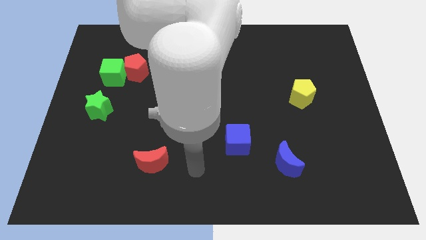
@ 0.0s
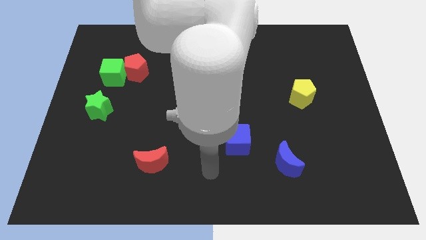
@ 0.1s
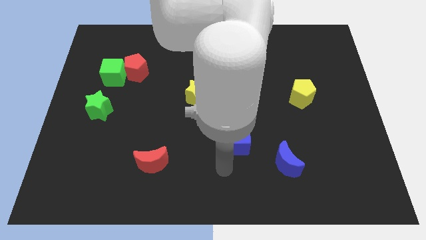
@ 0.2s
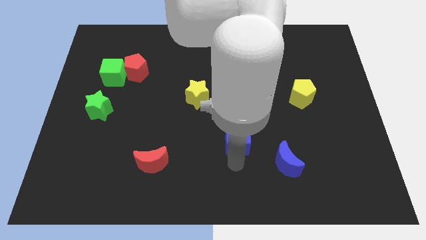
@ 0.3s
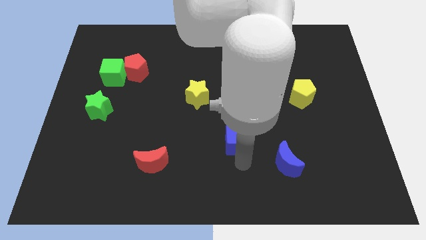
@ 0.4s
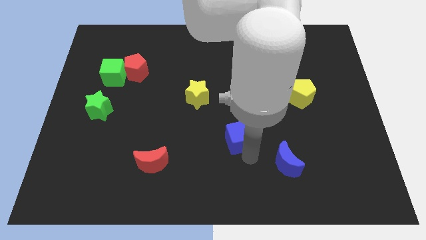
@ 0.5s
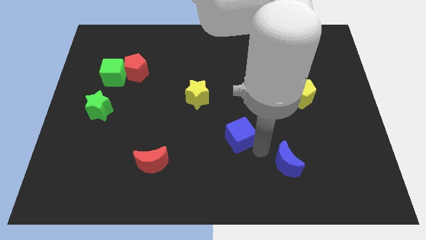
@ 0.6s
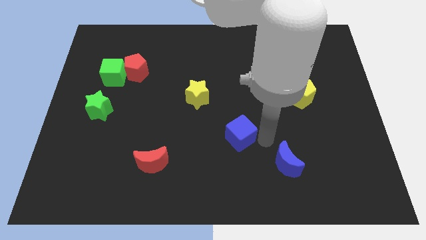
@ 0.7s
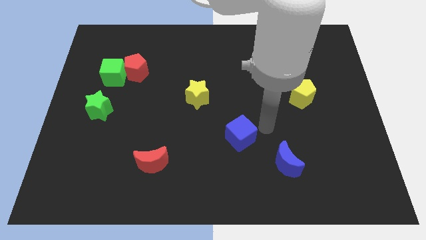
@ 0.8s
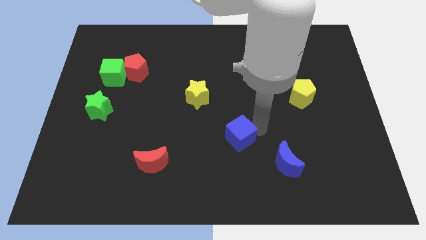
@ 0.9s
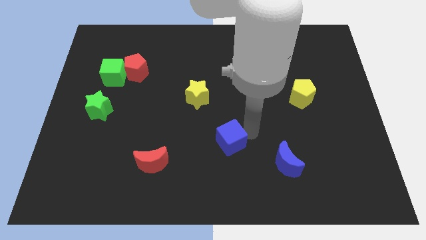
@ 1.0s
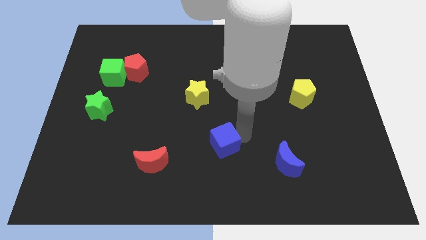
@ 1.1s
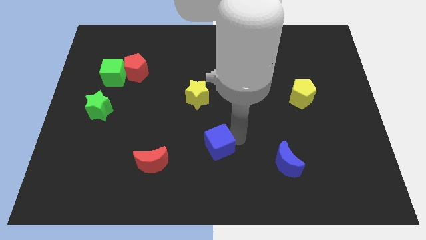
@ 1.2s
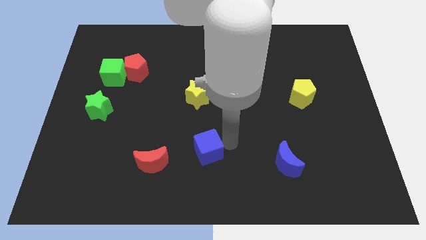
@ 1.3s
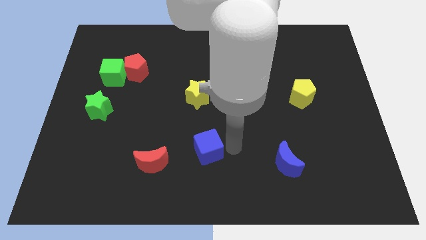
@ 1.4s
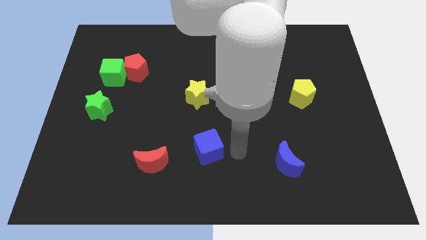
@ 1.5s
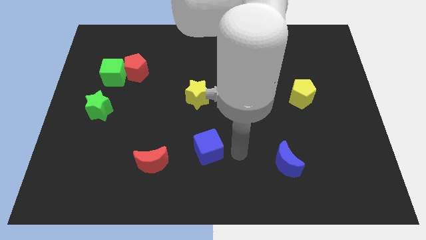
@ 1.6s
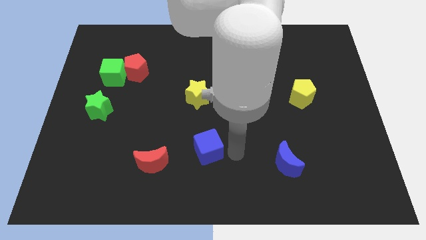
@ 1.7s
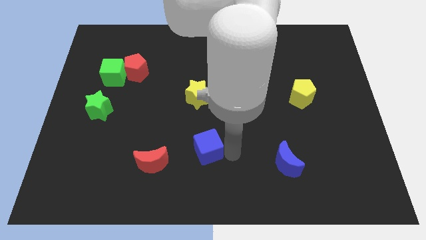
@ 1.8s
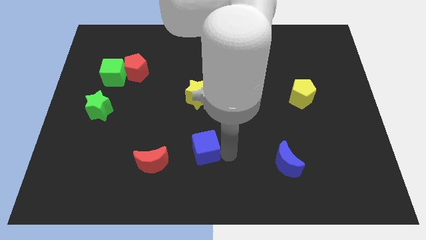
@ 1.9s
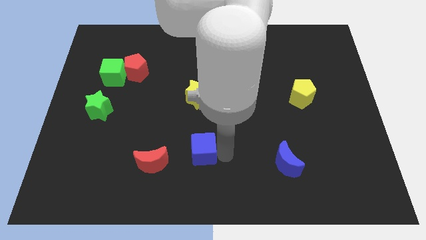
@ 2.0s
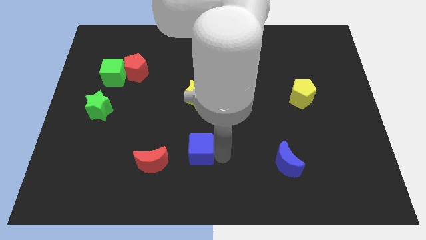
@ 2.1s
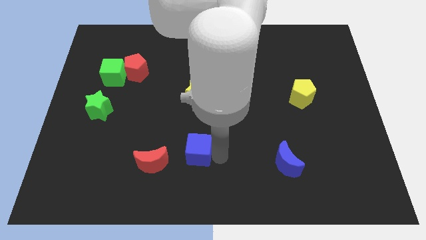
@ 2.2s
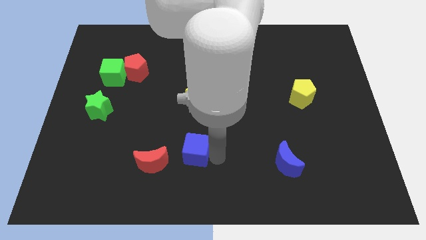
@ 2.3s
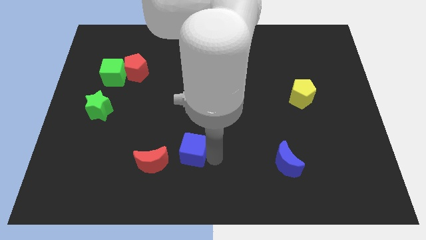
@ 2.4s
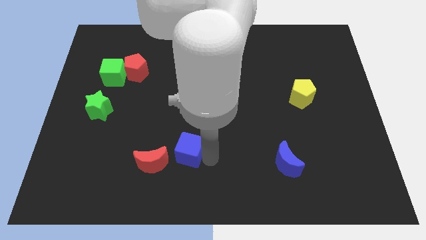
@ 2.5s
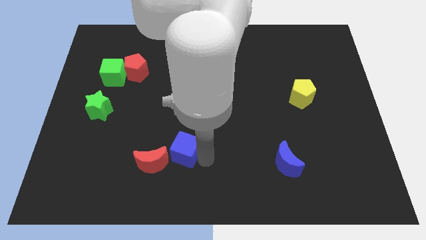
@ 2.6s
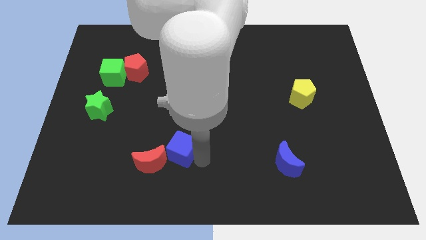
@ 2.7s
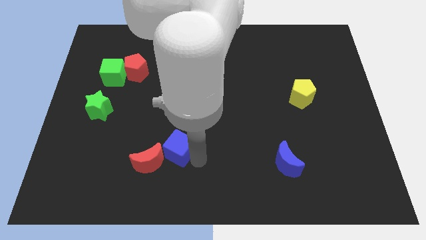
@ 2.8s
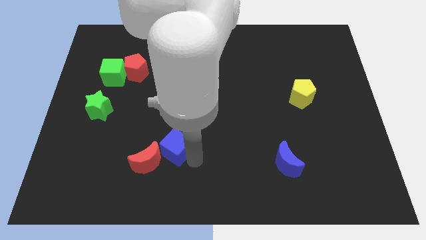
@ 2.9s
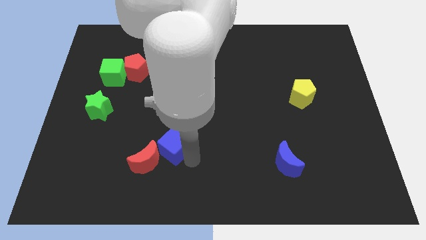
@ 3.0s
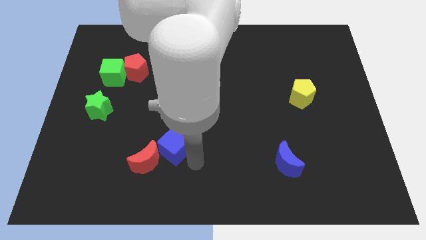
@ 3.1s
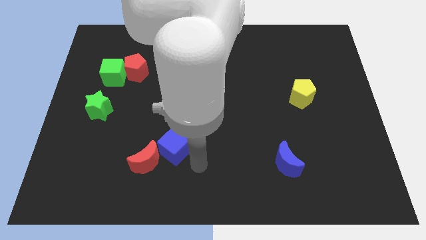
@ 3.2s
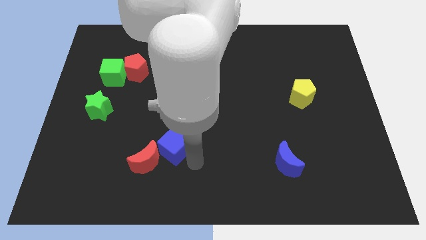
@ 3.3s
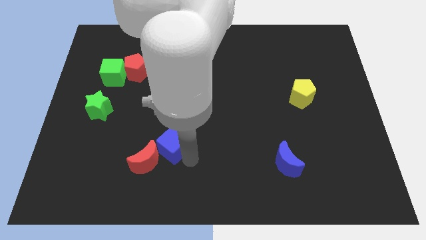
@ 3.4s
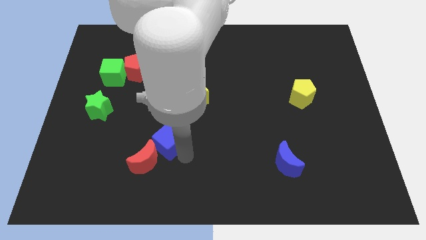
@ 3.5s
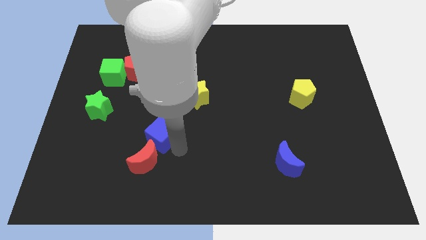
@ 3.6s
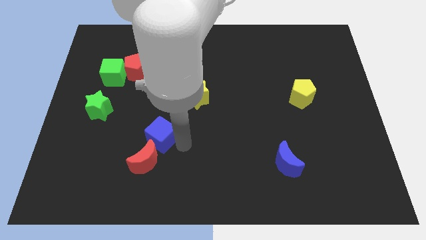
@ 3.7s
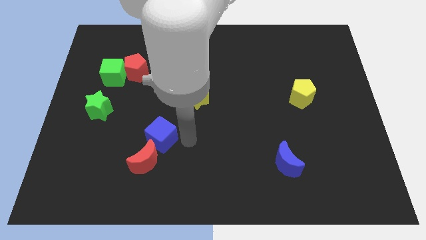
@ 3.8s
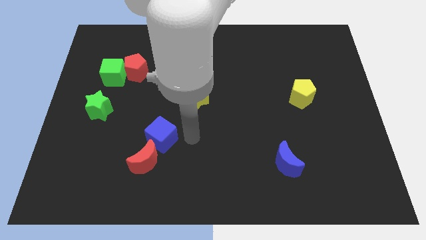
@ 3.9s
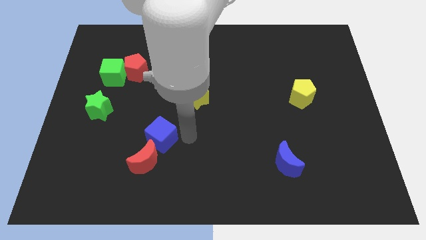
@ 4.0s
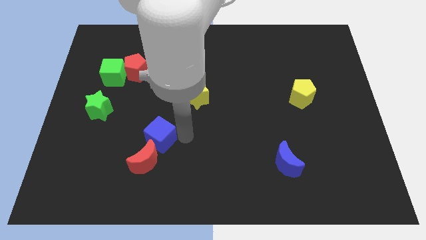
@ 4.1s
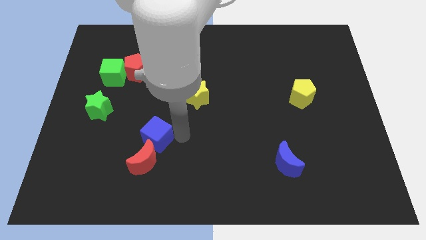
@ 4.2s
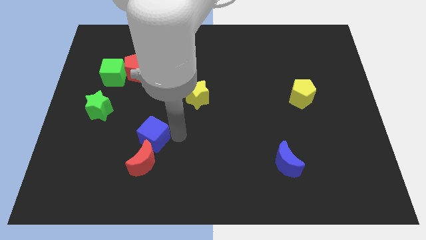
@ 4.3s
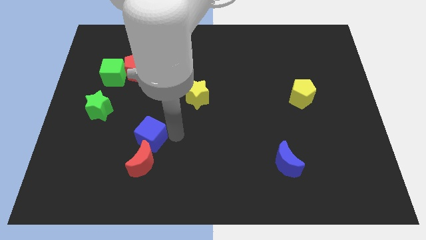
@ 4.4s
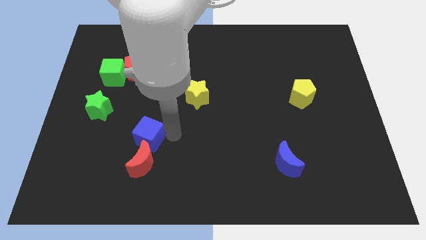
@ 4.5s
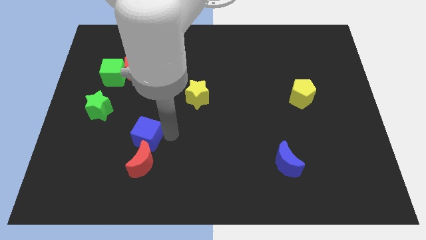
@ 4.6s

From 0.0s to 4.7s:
slide the blue cube left

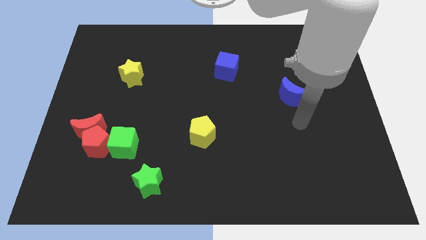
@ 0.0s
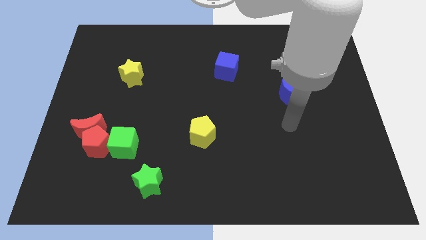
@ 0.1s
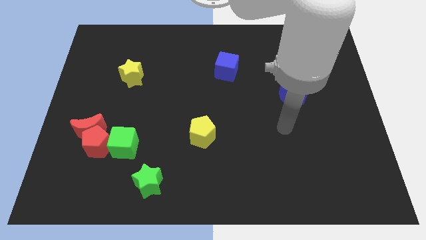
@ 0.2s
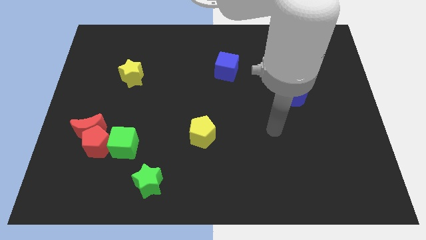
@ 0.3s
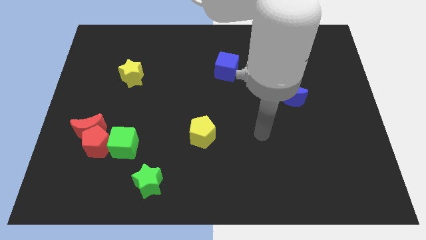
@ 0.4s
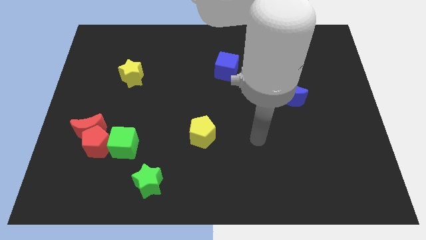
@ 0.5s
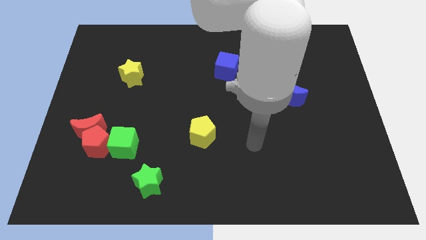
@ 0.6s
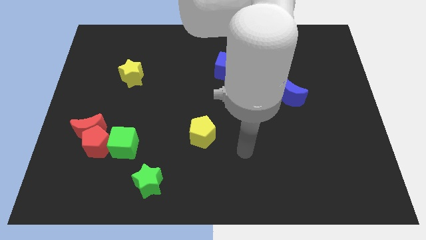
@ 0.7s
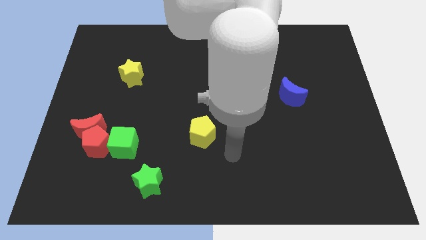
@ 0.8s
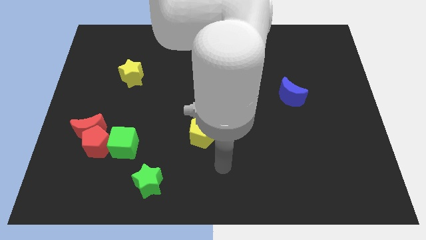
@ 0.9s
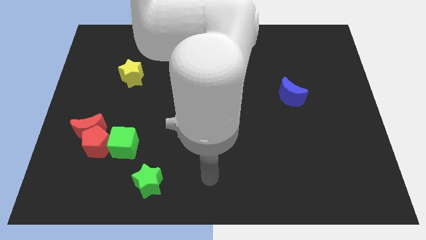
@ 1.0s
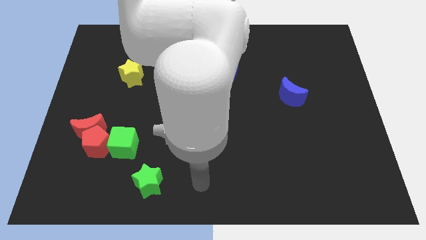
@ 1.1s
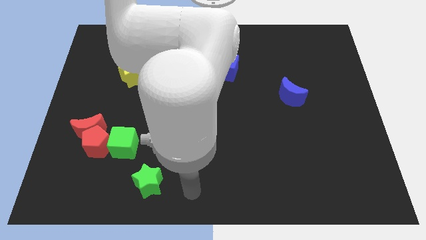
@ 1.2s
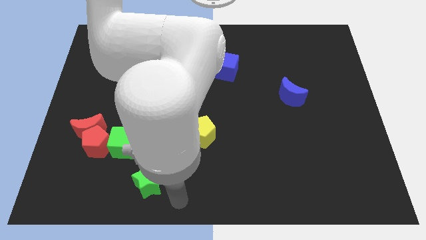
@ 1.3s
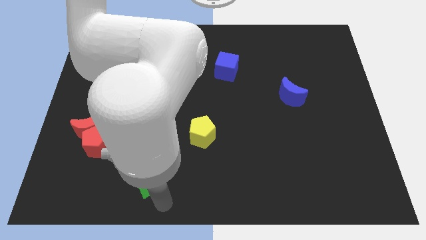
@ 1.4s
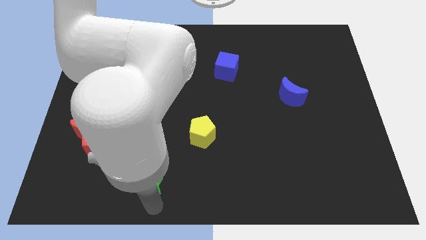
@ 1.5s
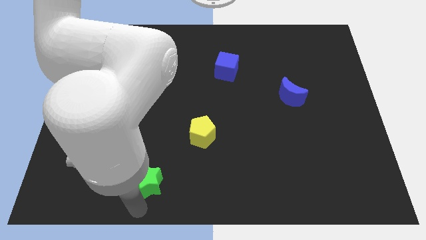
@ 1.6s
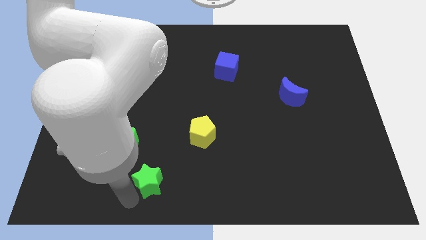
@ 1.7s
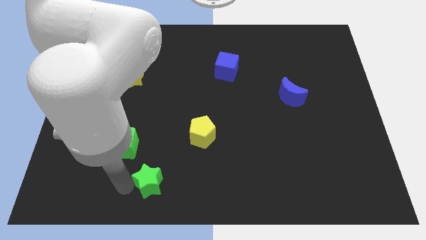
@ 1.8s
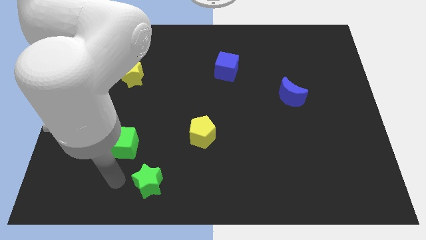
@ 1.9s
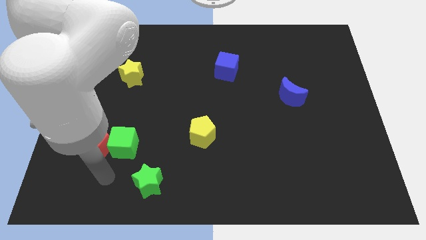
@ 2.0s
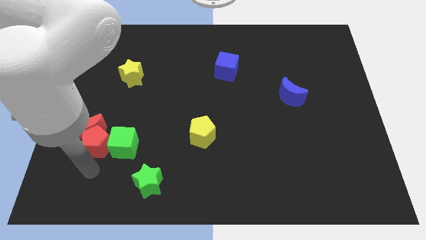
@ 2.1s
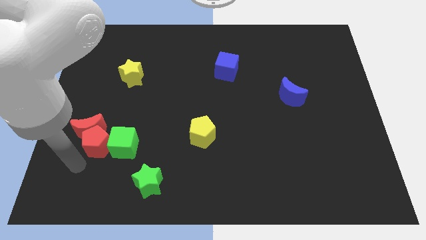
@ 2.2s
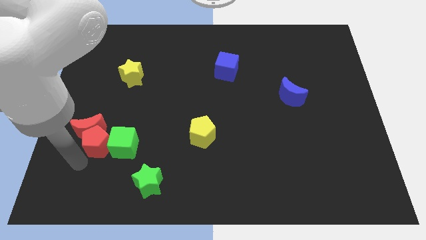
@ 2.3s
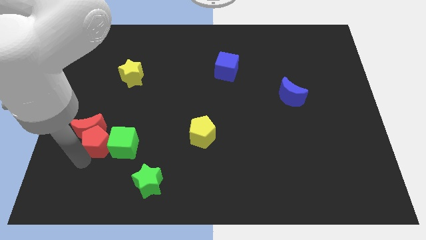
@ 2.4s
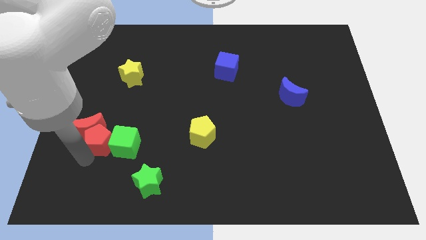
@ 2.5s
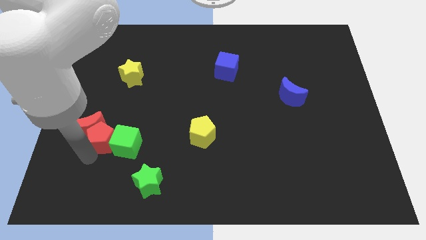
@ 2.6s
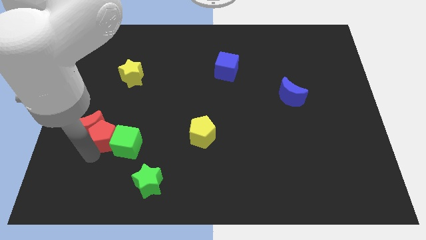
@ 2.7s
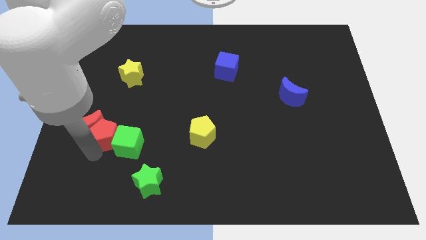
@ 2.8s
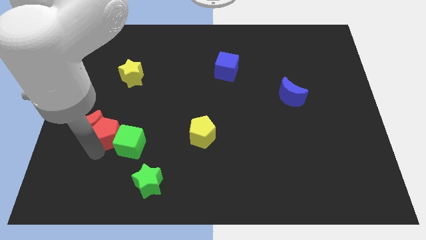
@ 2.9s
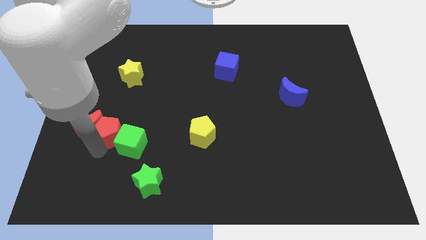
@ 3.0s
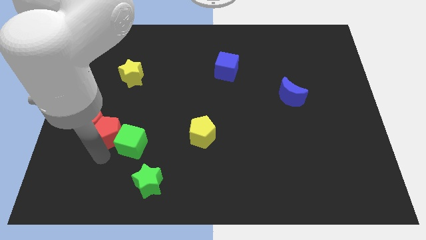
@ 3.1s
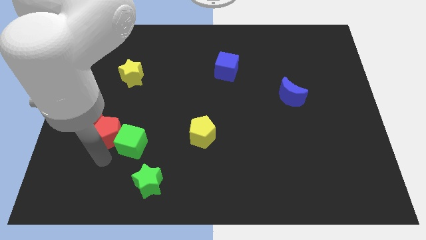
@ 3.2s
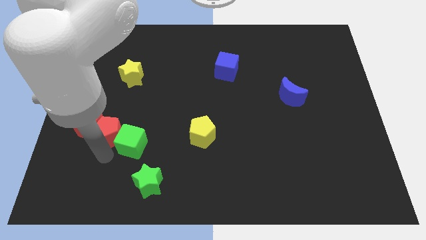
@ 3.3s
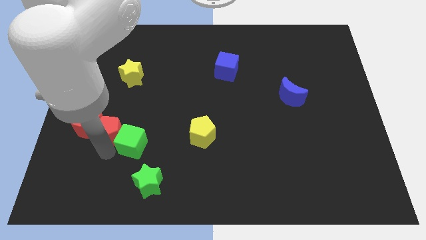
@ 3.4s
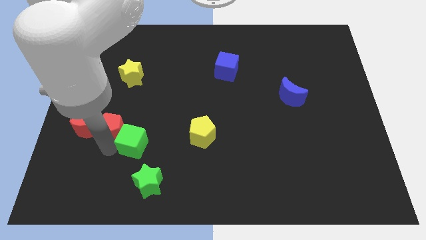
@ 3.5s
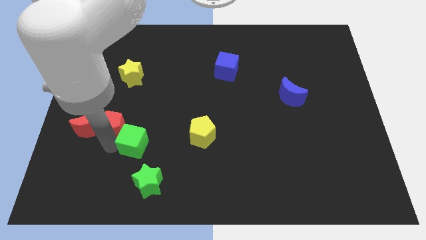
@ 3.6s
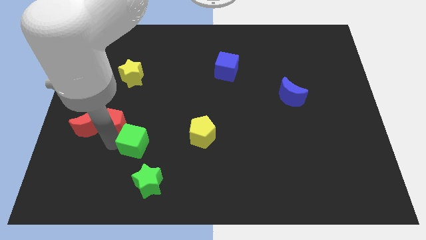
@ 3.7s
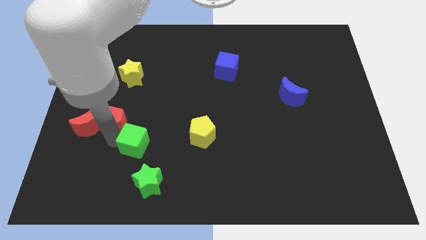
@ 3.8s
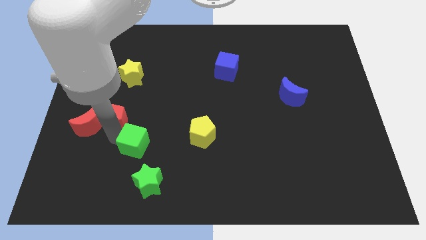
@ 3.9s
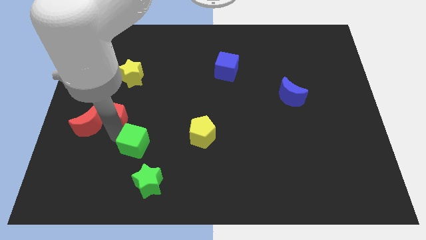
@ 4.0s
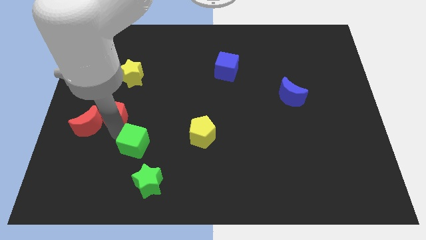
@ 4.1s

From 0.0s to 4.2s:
push the red pentagon upwards somewhat
